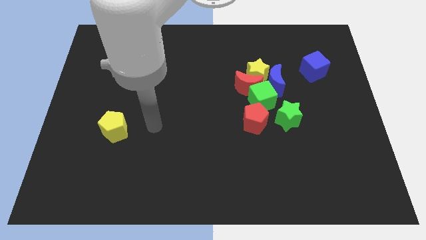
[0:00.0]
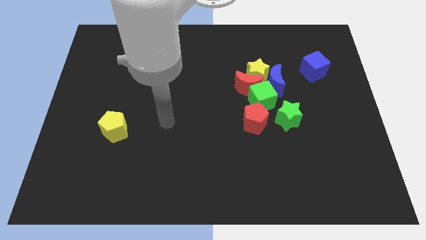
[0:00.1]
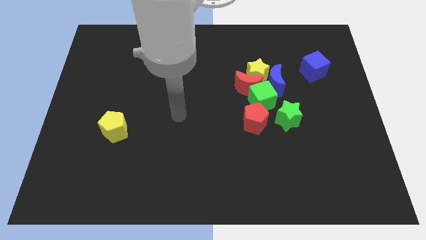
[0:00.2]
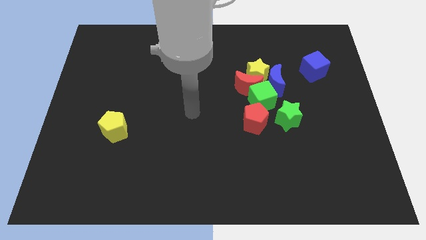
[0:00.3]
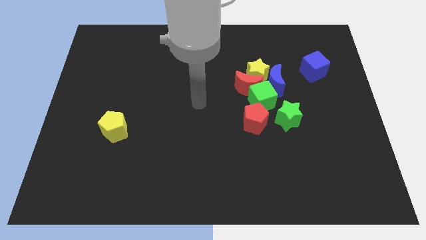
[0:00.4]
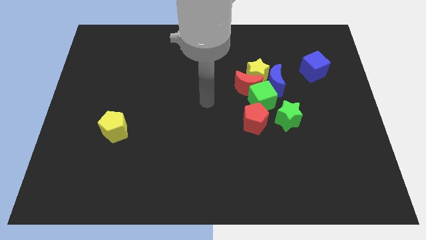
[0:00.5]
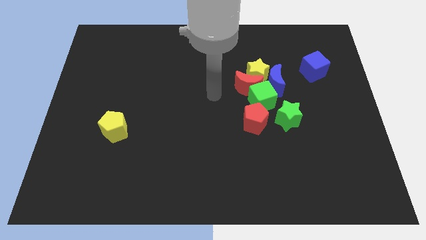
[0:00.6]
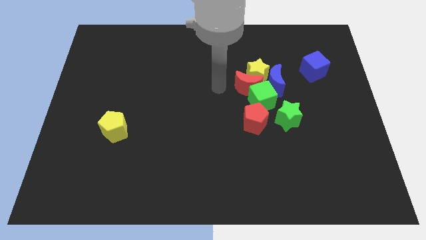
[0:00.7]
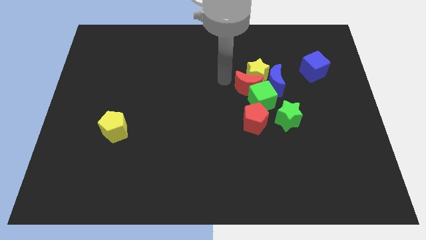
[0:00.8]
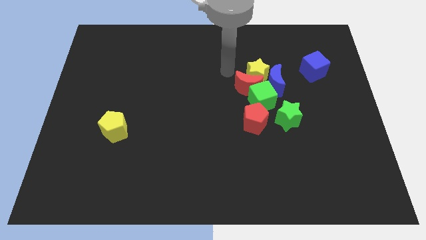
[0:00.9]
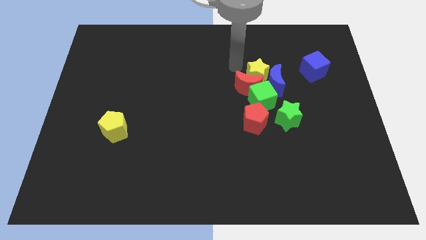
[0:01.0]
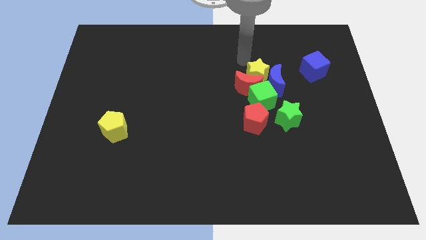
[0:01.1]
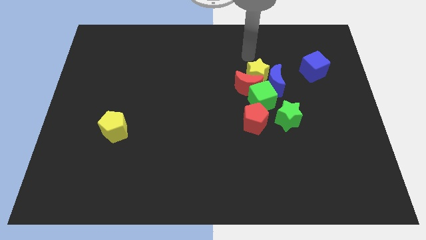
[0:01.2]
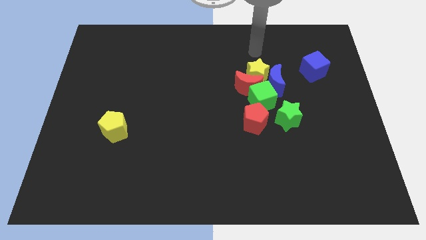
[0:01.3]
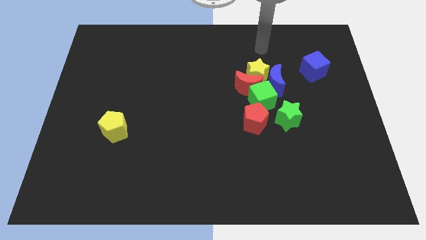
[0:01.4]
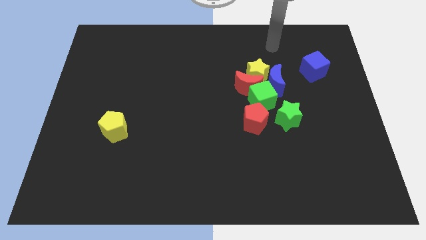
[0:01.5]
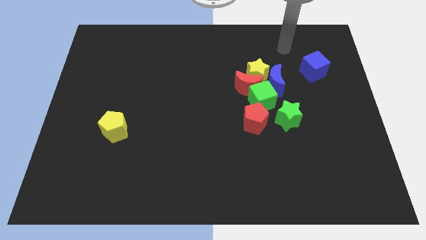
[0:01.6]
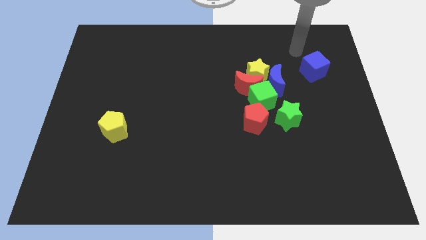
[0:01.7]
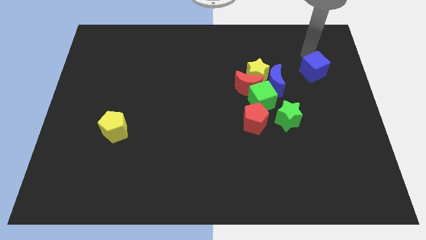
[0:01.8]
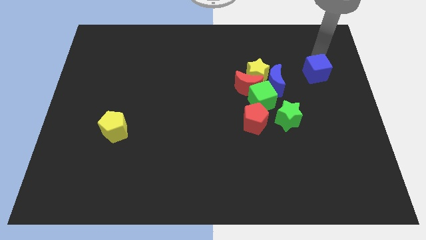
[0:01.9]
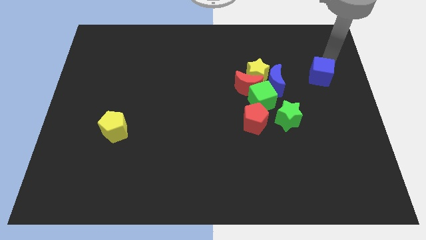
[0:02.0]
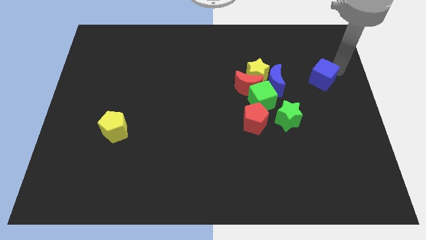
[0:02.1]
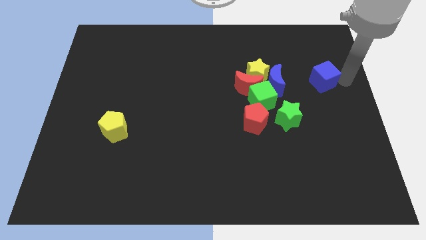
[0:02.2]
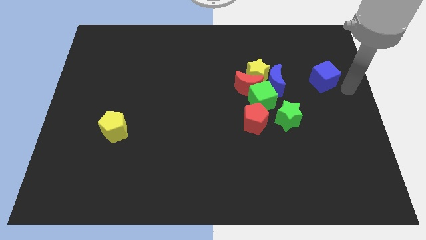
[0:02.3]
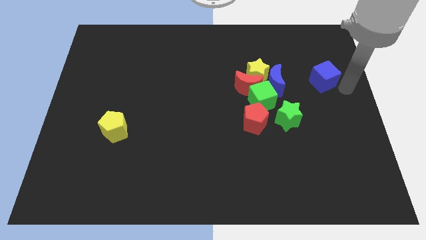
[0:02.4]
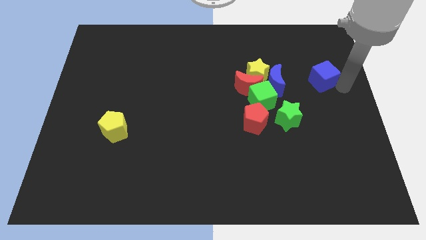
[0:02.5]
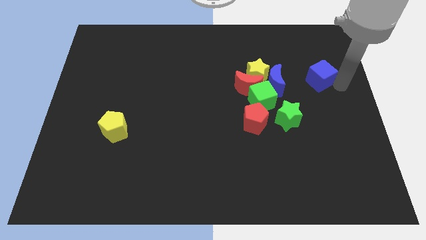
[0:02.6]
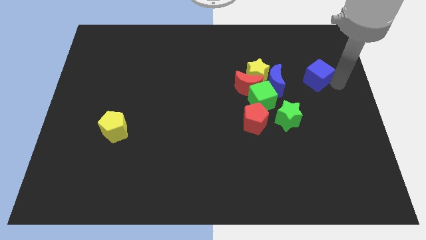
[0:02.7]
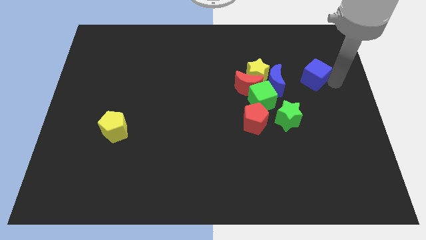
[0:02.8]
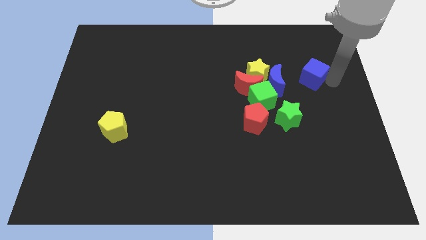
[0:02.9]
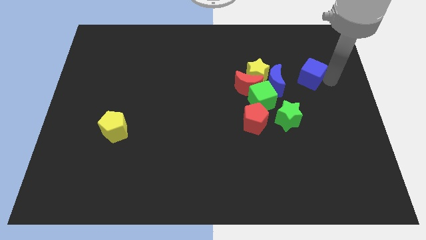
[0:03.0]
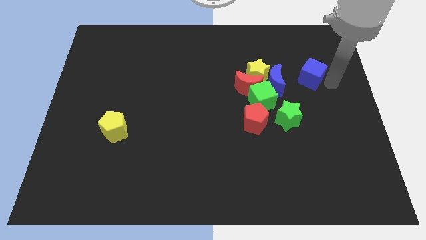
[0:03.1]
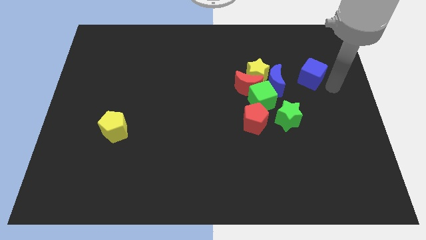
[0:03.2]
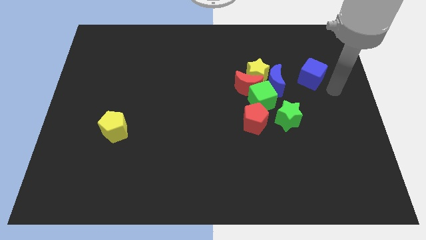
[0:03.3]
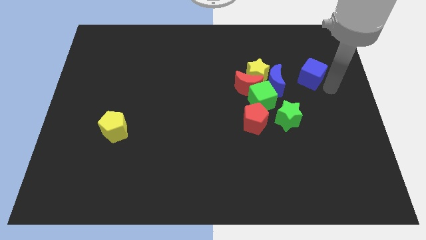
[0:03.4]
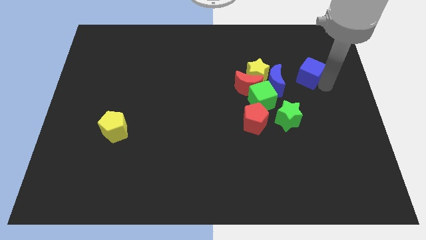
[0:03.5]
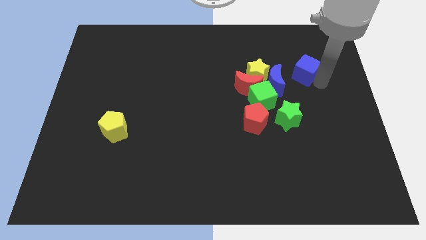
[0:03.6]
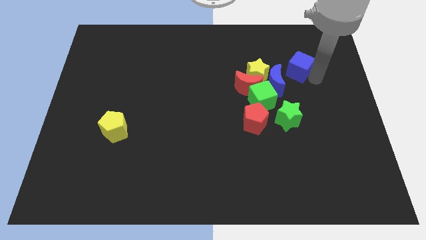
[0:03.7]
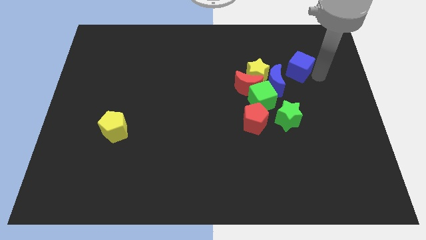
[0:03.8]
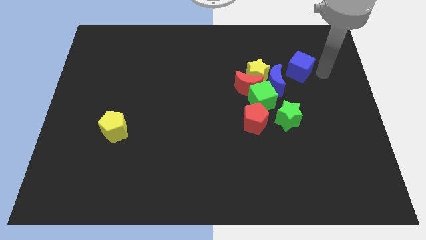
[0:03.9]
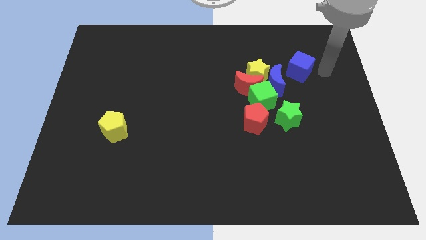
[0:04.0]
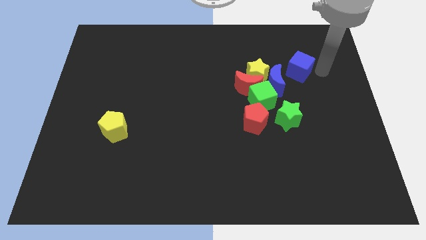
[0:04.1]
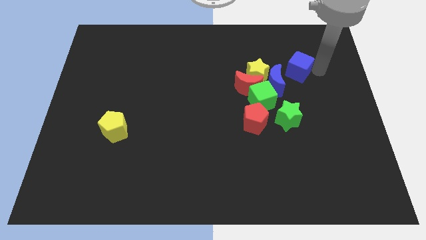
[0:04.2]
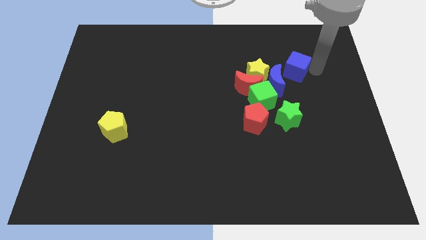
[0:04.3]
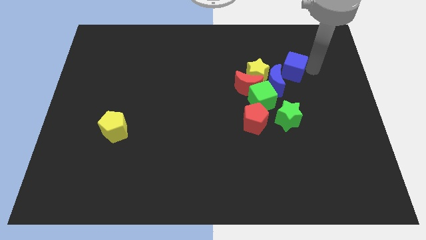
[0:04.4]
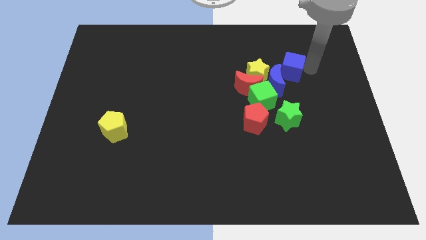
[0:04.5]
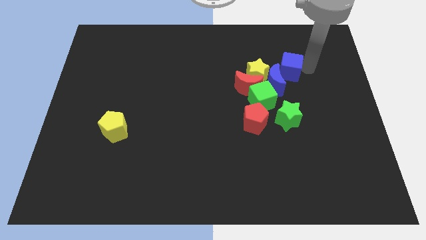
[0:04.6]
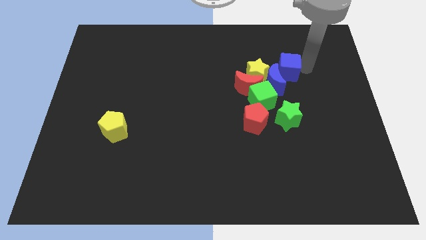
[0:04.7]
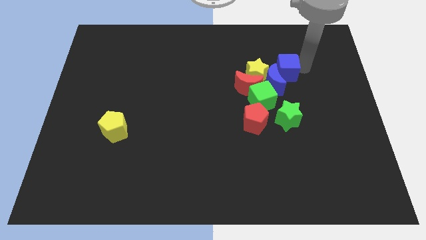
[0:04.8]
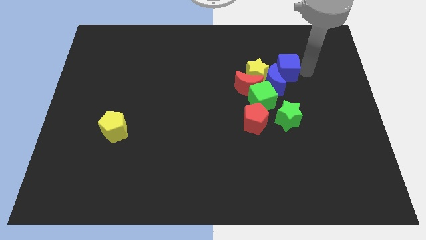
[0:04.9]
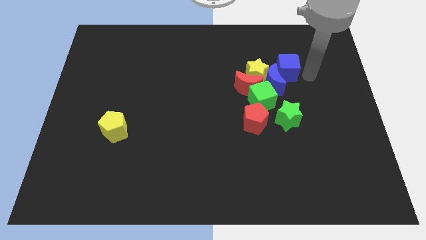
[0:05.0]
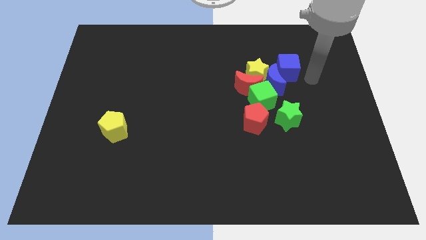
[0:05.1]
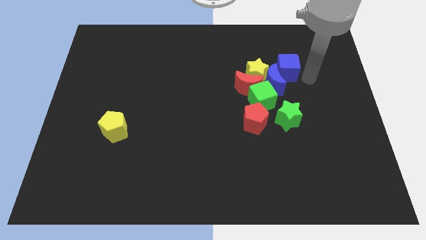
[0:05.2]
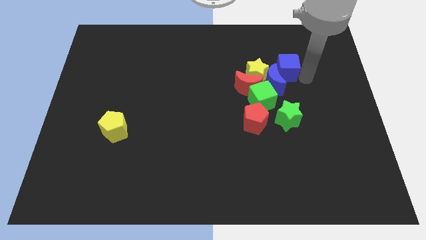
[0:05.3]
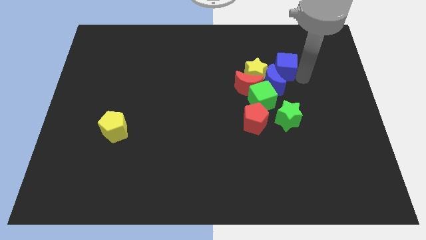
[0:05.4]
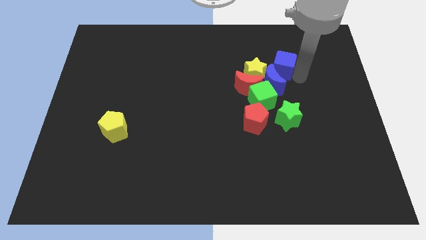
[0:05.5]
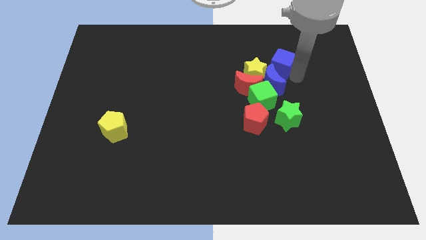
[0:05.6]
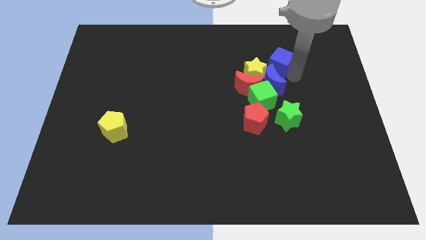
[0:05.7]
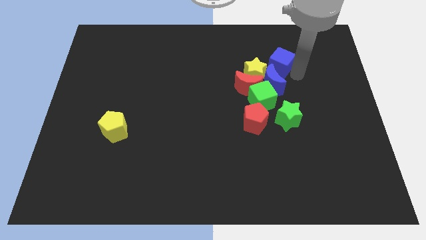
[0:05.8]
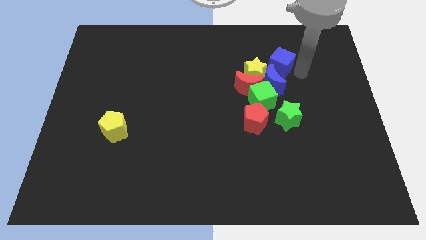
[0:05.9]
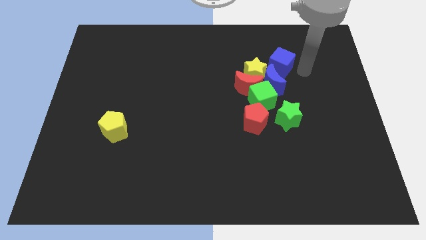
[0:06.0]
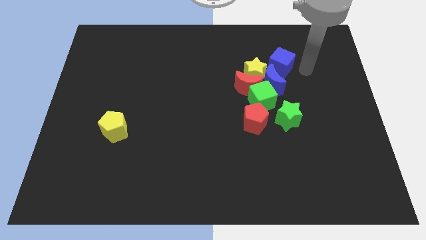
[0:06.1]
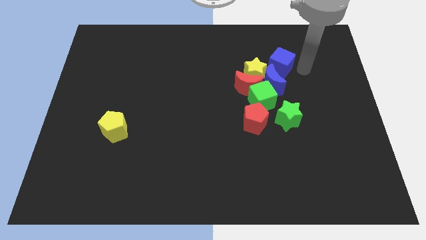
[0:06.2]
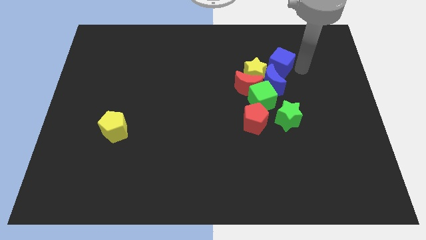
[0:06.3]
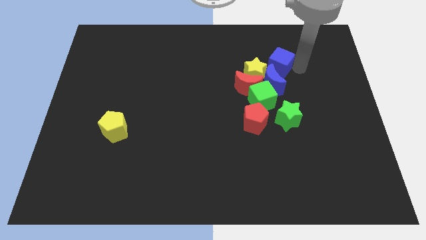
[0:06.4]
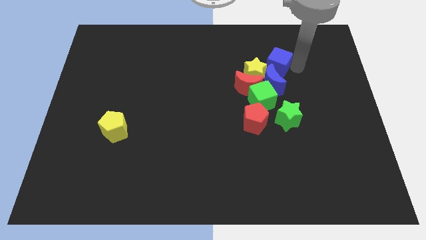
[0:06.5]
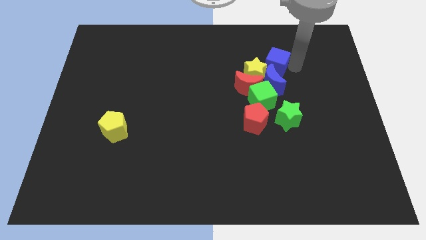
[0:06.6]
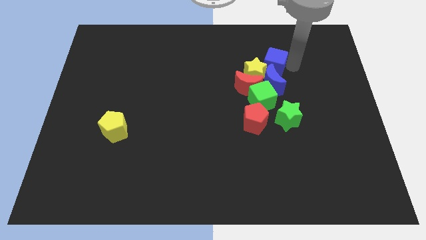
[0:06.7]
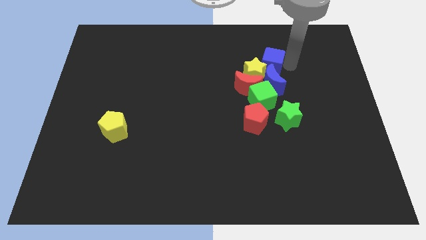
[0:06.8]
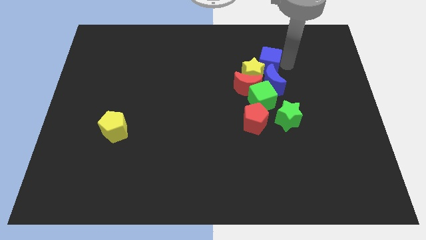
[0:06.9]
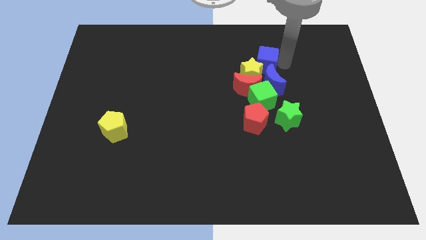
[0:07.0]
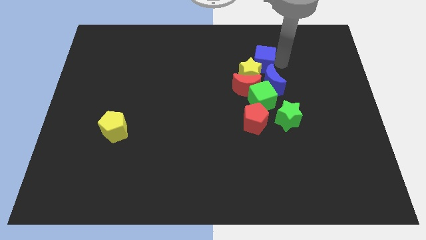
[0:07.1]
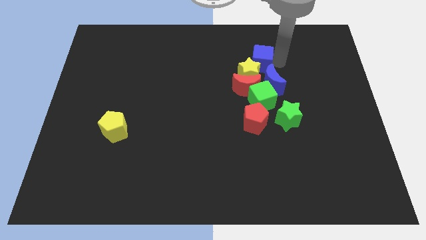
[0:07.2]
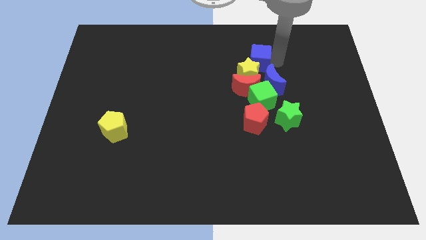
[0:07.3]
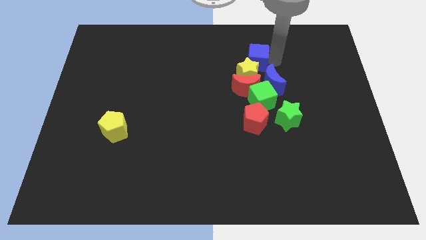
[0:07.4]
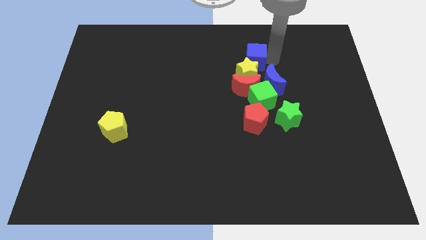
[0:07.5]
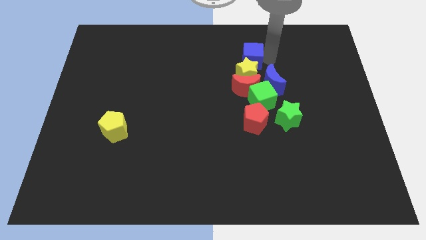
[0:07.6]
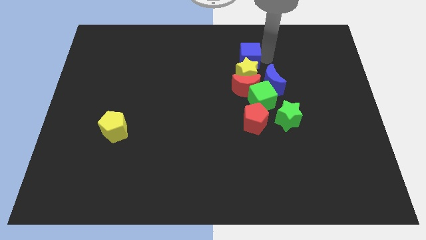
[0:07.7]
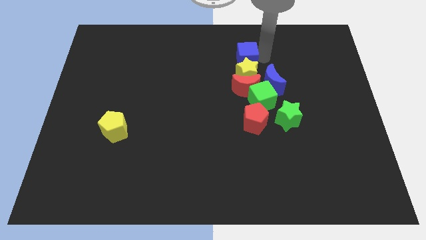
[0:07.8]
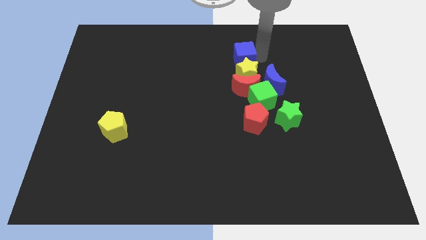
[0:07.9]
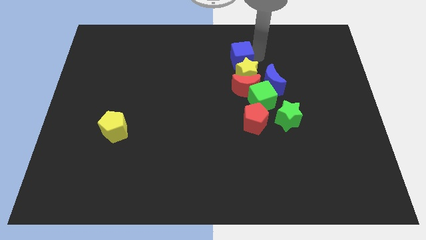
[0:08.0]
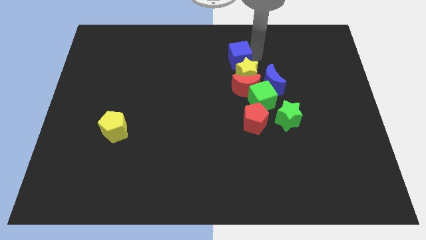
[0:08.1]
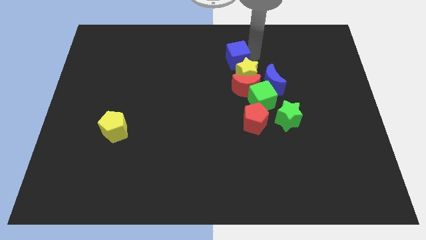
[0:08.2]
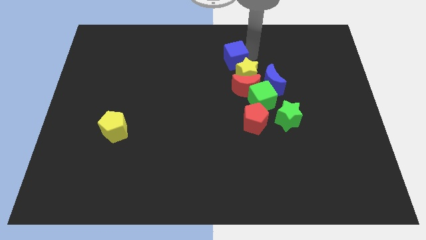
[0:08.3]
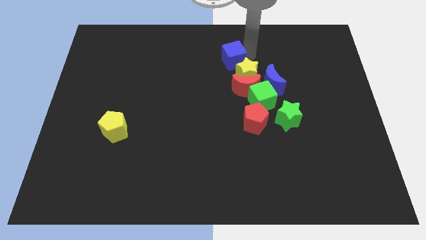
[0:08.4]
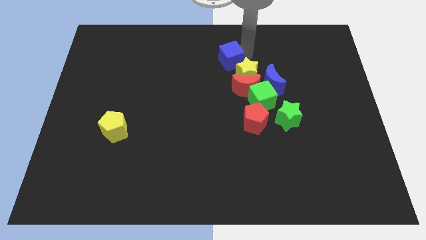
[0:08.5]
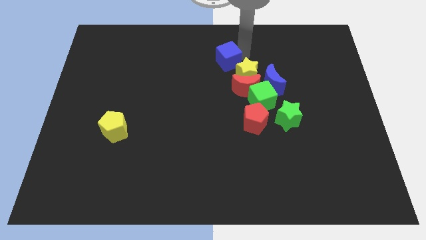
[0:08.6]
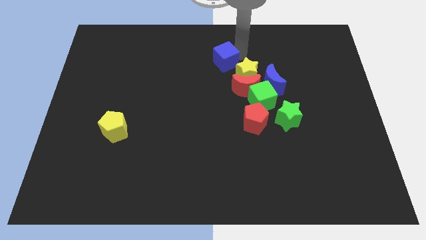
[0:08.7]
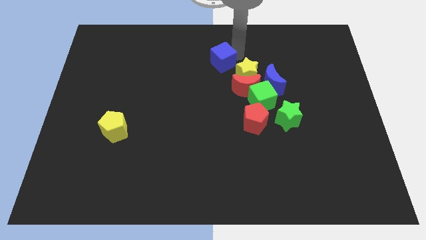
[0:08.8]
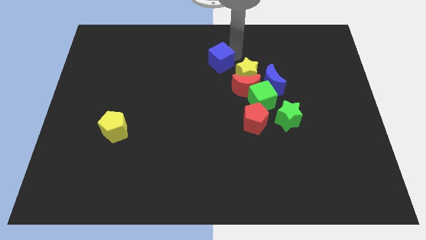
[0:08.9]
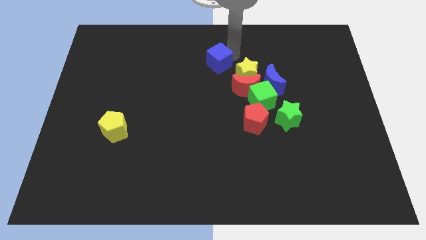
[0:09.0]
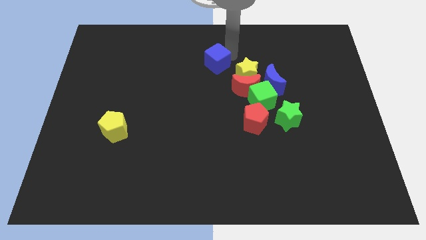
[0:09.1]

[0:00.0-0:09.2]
push the blue cube to the middle of the board
